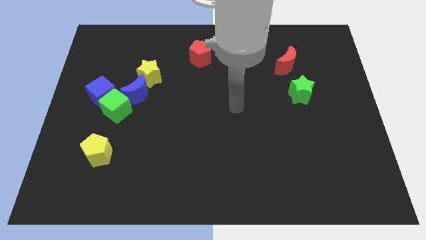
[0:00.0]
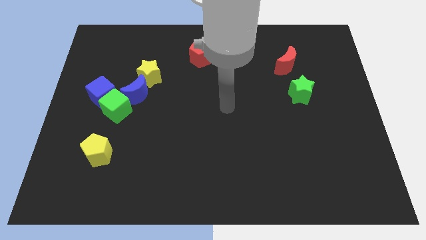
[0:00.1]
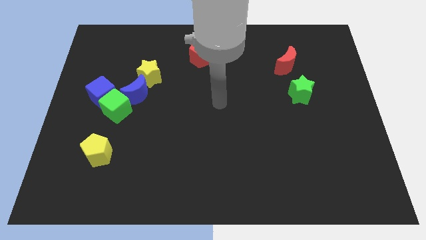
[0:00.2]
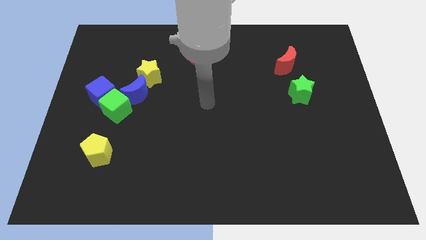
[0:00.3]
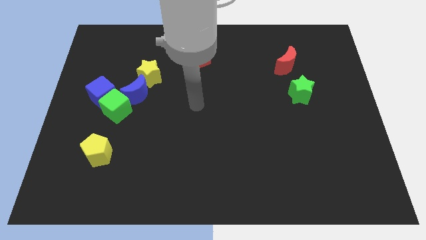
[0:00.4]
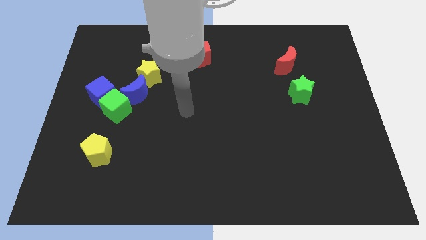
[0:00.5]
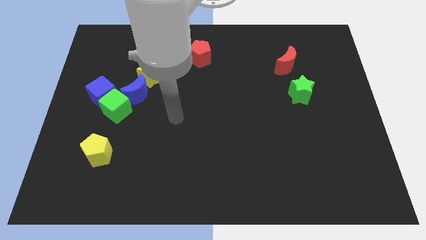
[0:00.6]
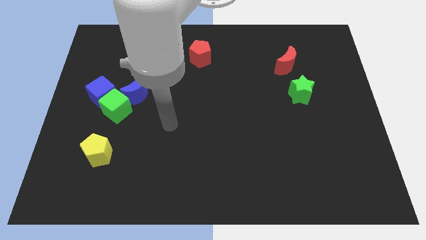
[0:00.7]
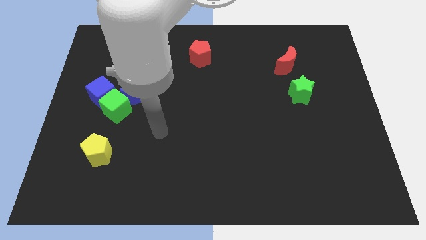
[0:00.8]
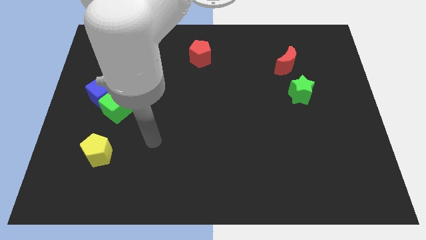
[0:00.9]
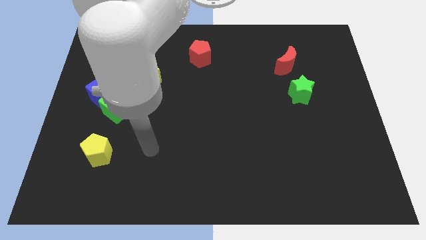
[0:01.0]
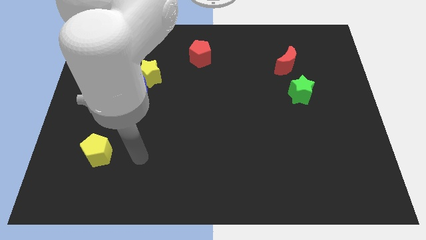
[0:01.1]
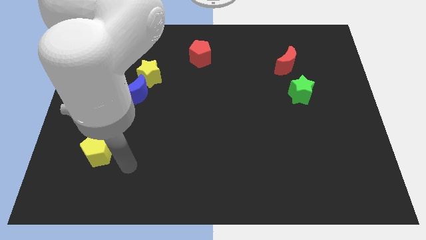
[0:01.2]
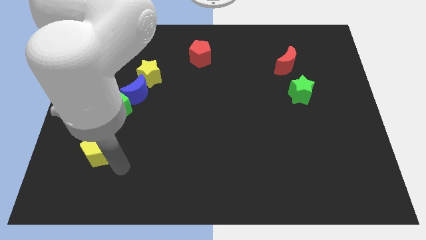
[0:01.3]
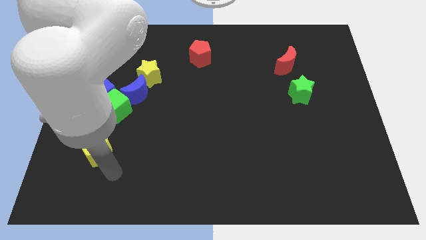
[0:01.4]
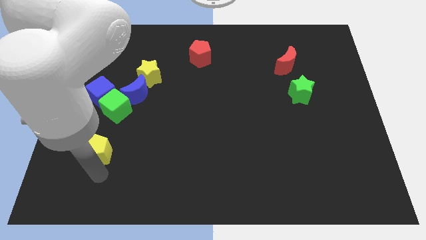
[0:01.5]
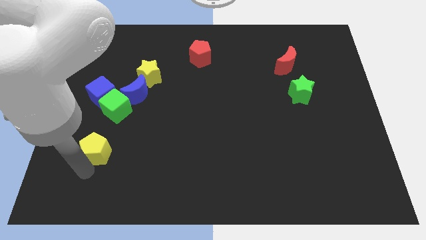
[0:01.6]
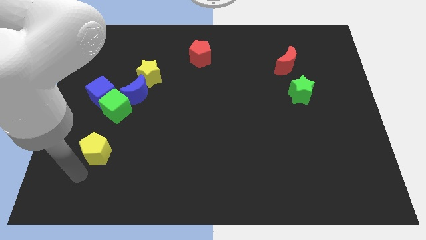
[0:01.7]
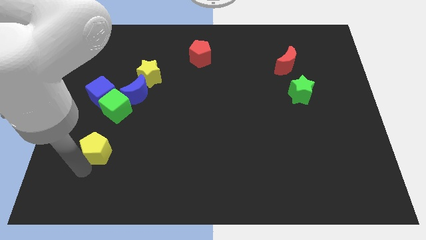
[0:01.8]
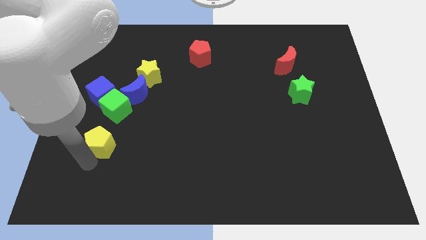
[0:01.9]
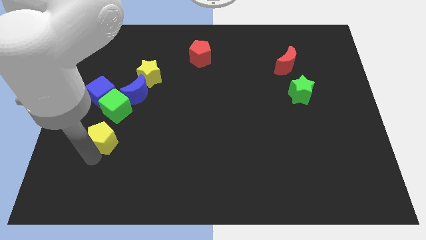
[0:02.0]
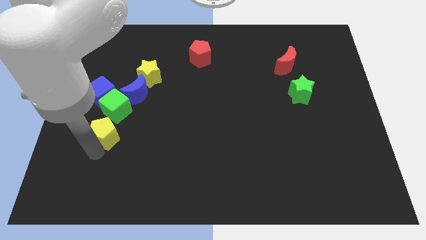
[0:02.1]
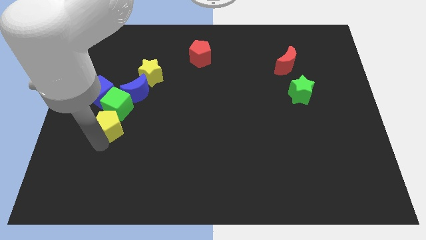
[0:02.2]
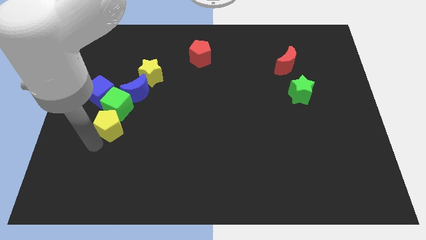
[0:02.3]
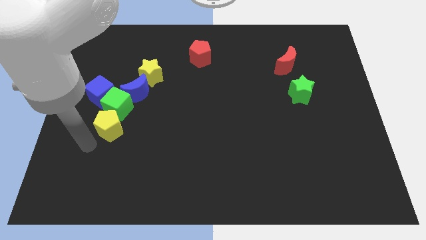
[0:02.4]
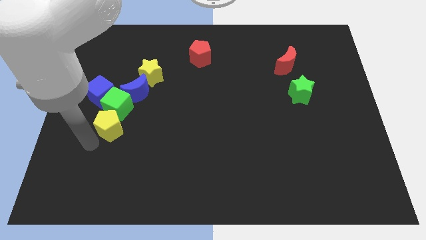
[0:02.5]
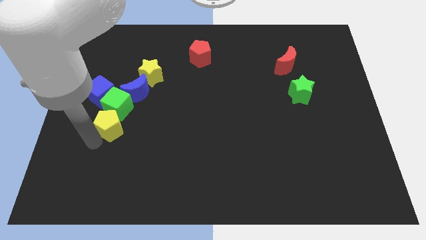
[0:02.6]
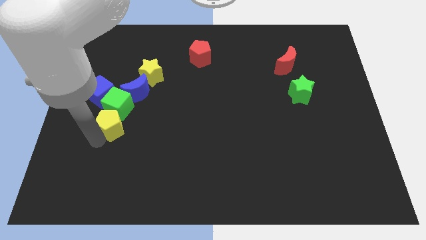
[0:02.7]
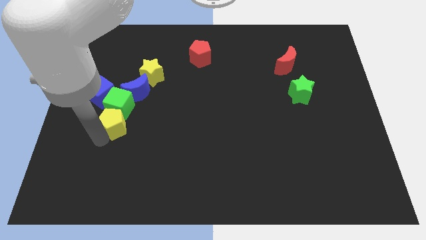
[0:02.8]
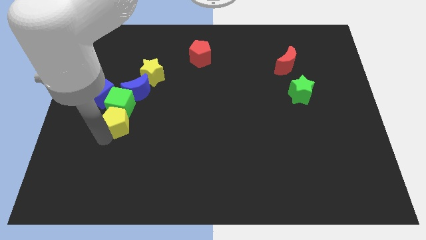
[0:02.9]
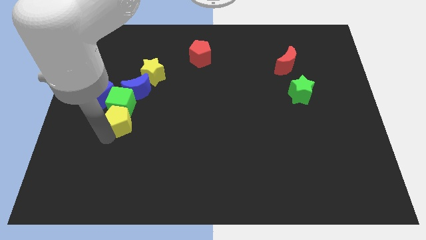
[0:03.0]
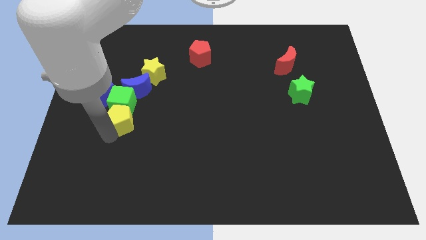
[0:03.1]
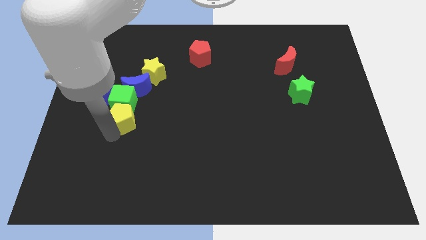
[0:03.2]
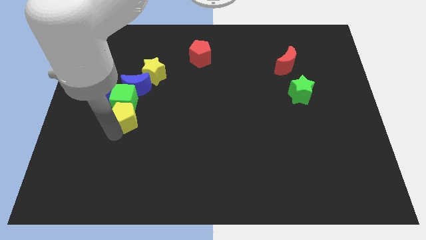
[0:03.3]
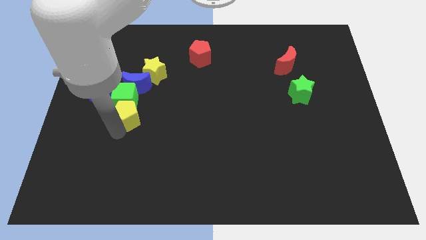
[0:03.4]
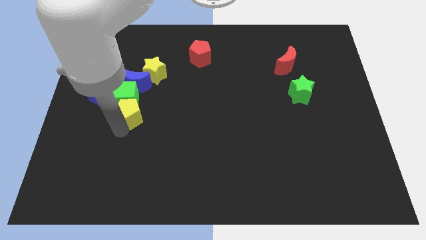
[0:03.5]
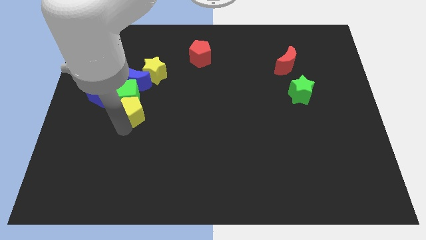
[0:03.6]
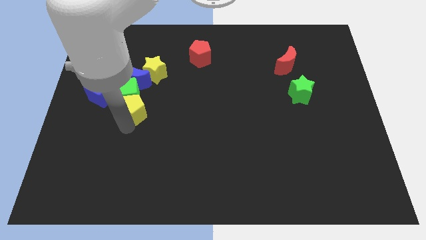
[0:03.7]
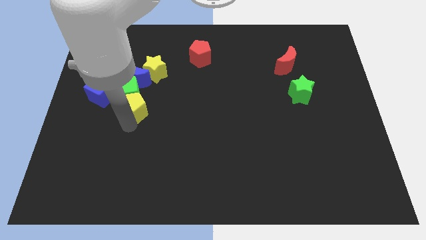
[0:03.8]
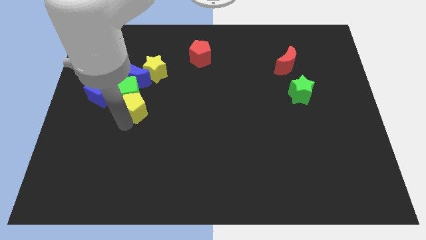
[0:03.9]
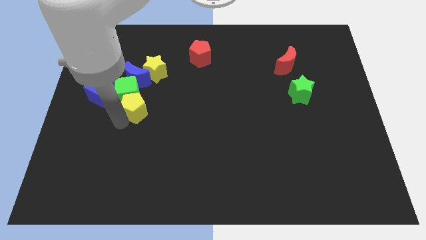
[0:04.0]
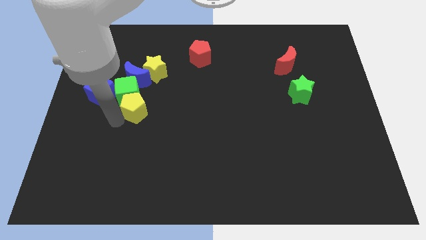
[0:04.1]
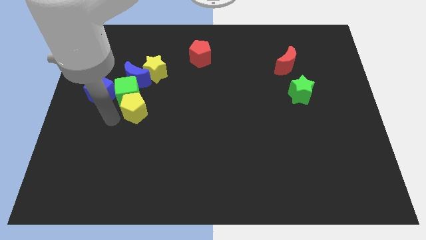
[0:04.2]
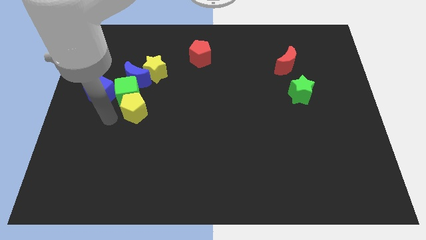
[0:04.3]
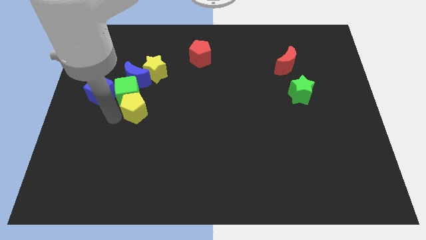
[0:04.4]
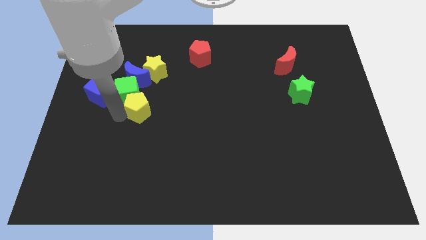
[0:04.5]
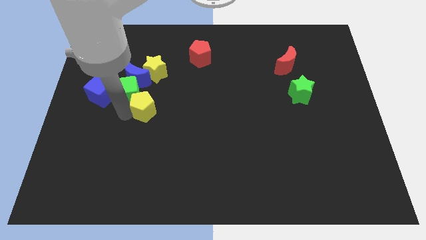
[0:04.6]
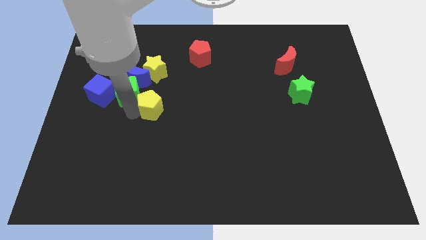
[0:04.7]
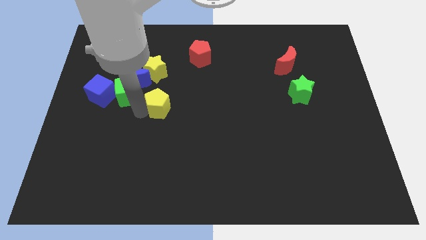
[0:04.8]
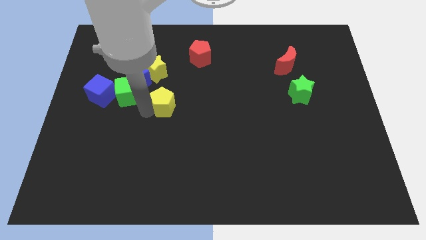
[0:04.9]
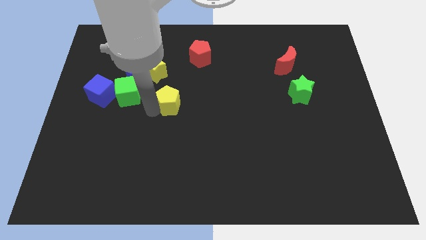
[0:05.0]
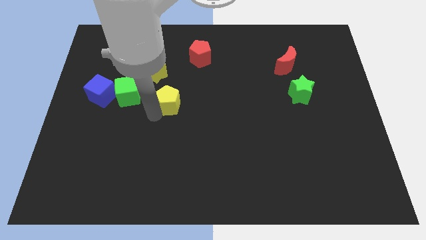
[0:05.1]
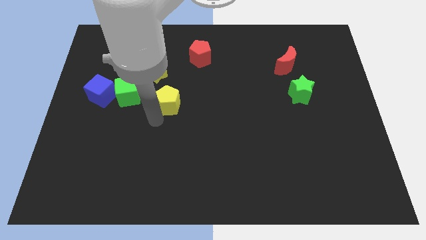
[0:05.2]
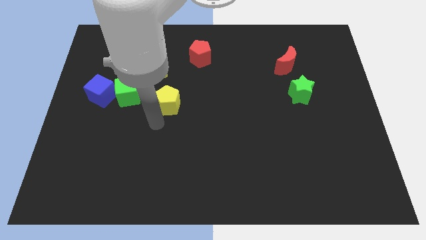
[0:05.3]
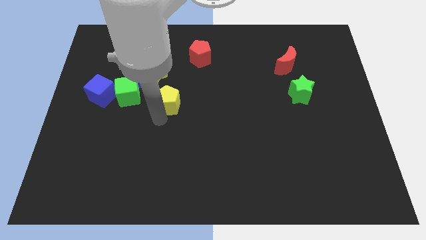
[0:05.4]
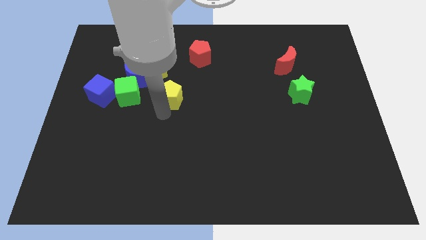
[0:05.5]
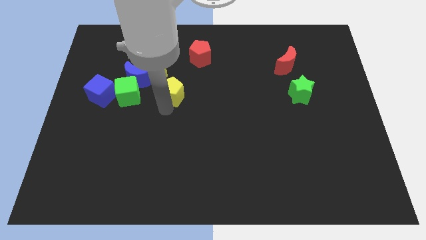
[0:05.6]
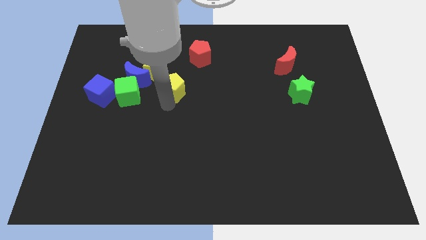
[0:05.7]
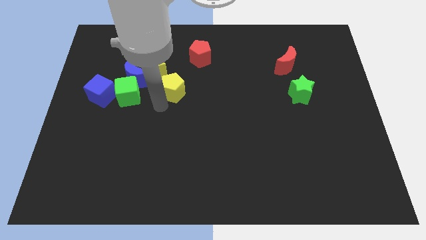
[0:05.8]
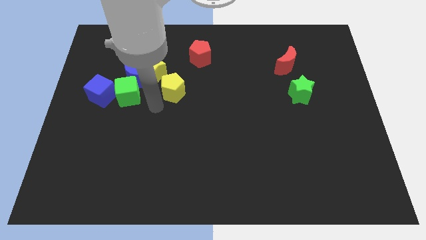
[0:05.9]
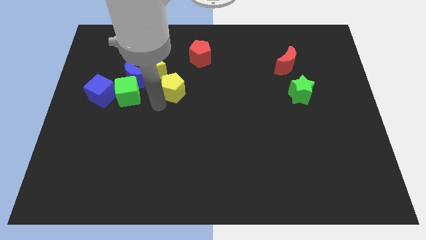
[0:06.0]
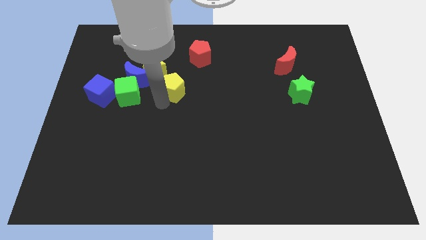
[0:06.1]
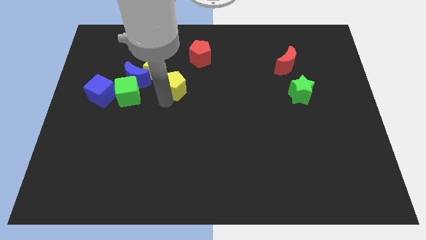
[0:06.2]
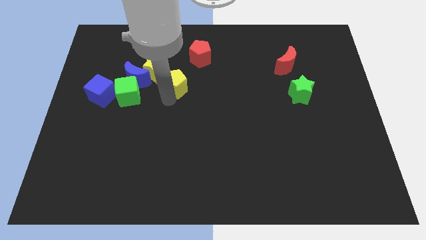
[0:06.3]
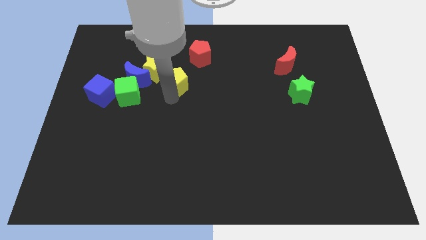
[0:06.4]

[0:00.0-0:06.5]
slide the yellow pentagon to the right side of the yellow star

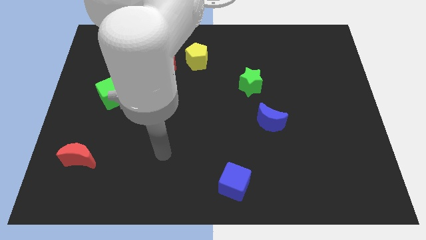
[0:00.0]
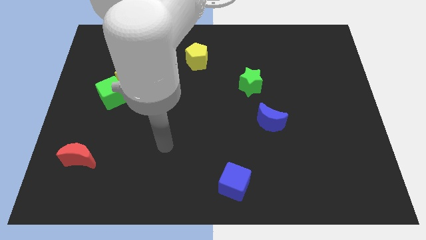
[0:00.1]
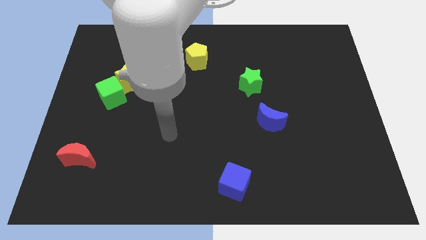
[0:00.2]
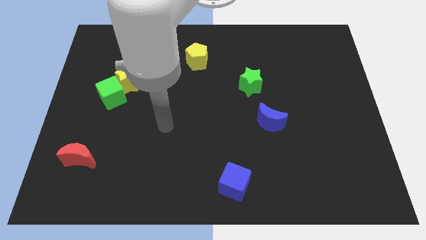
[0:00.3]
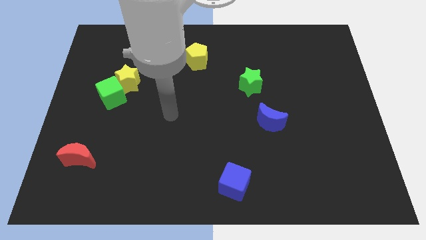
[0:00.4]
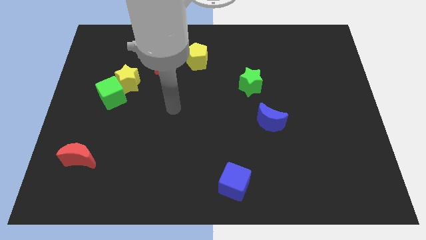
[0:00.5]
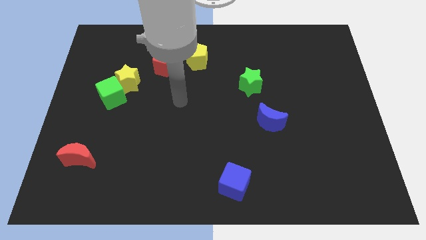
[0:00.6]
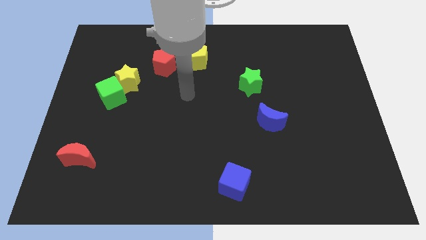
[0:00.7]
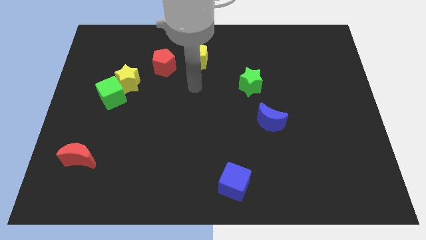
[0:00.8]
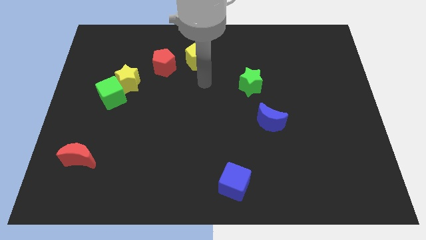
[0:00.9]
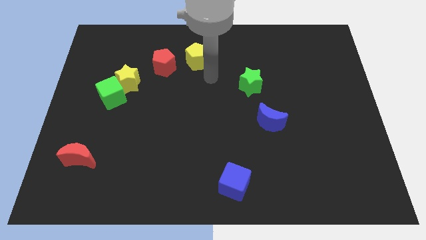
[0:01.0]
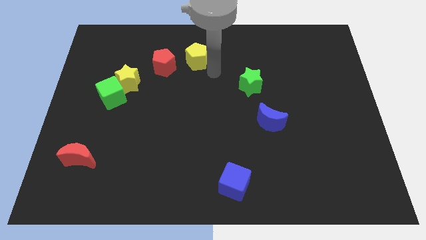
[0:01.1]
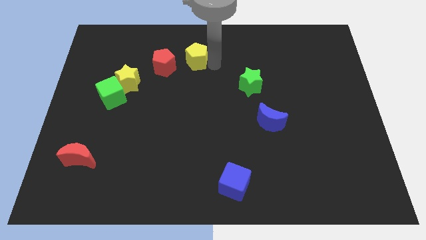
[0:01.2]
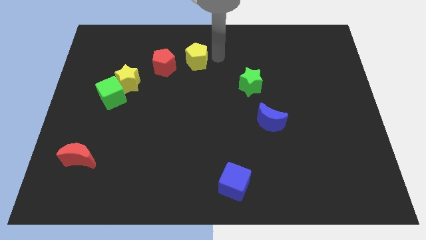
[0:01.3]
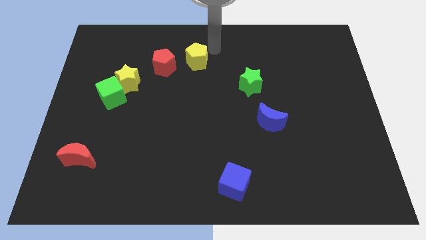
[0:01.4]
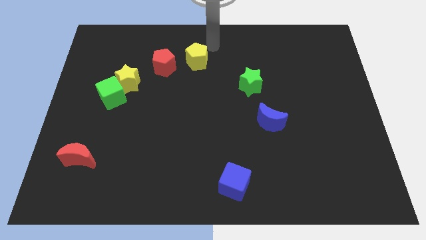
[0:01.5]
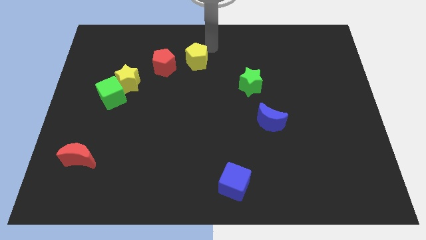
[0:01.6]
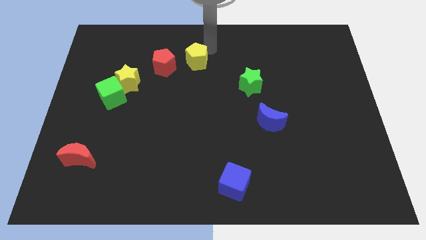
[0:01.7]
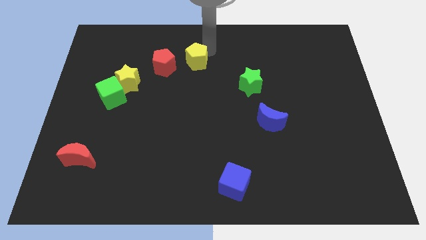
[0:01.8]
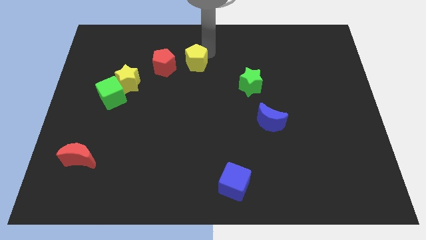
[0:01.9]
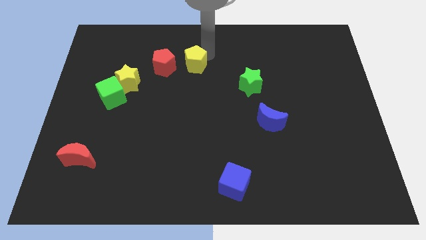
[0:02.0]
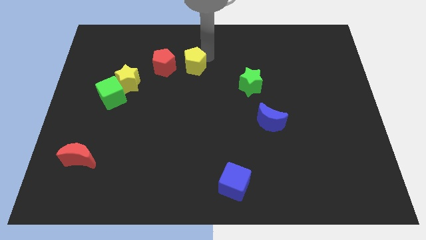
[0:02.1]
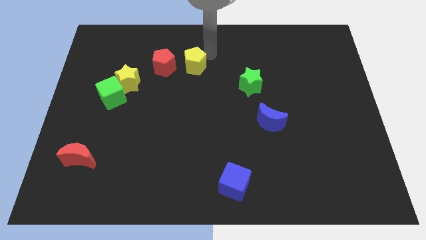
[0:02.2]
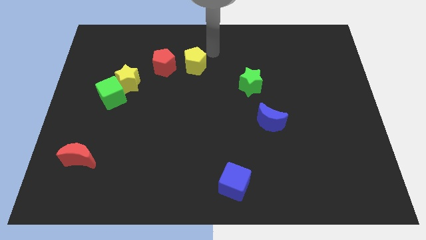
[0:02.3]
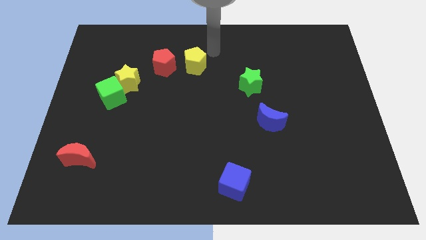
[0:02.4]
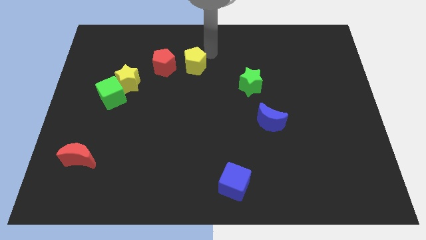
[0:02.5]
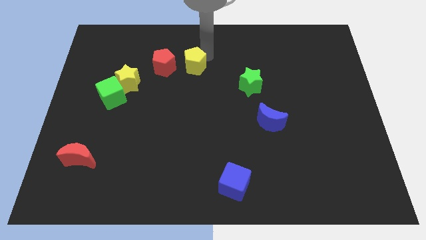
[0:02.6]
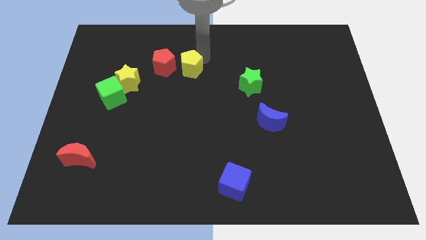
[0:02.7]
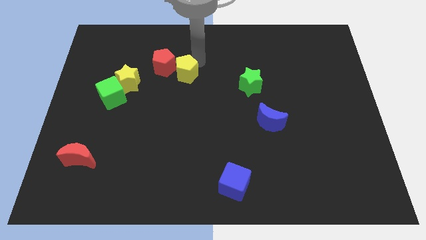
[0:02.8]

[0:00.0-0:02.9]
push the yellow pentagon to the right side of the yellow star
